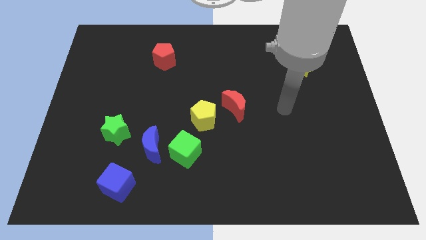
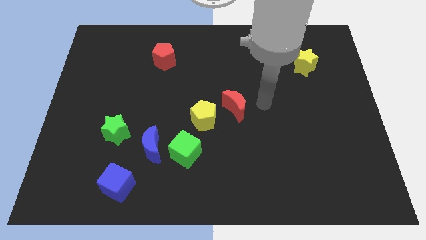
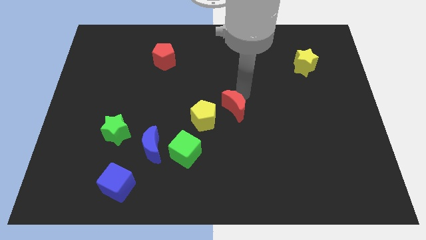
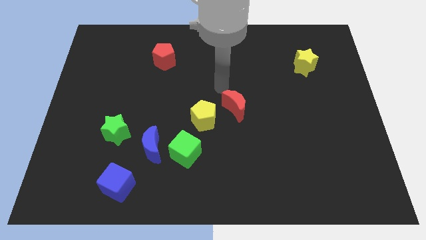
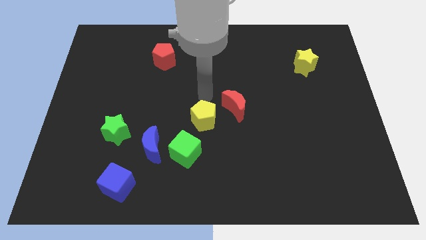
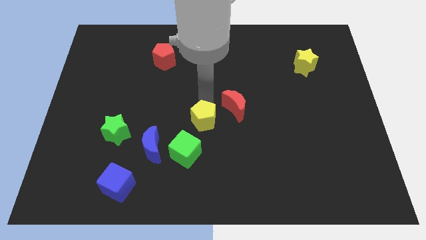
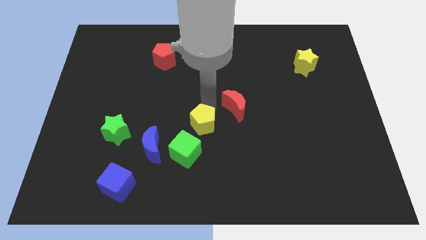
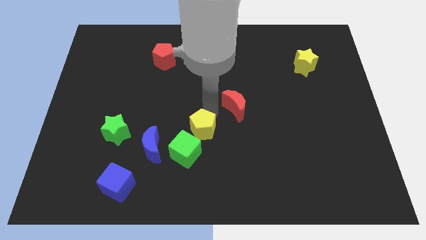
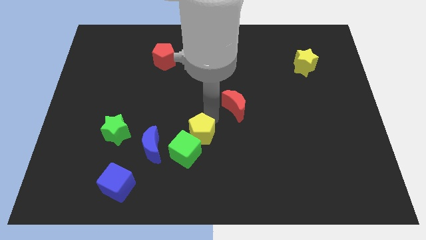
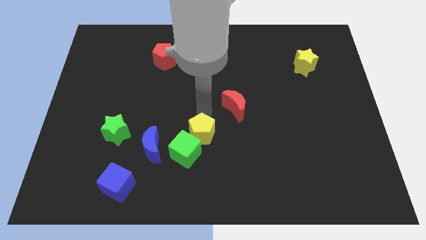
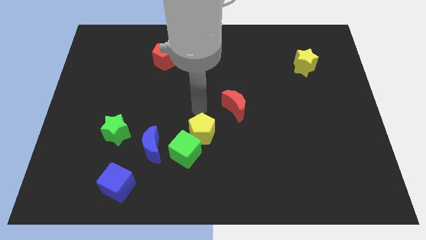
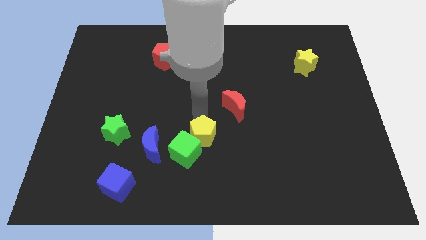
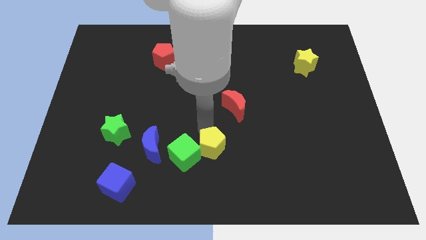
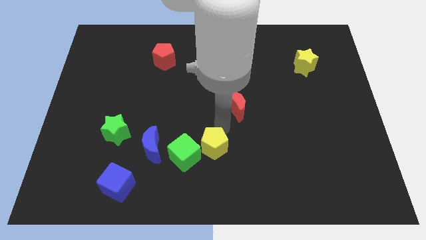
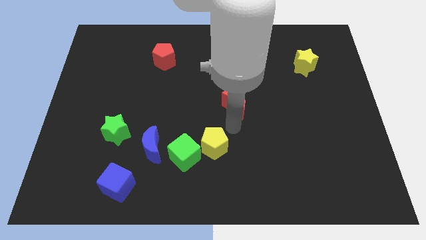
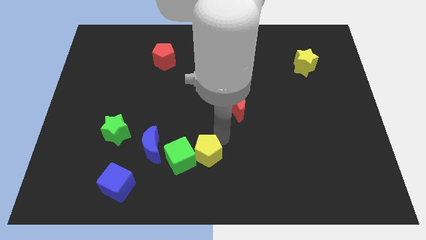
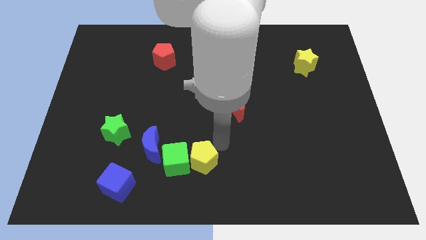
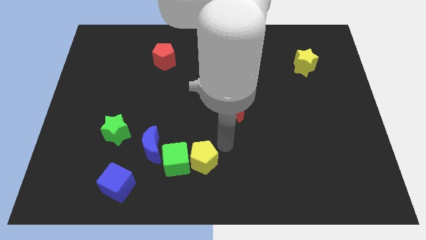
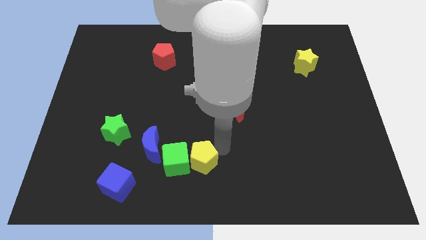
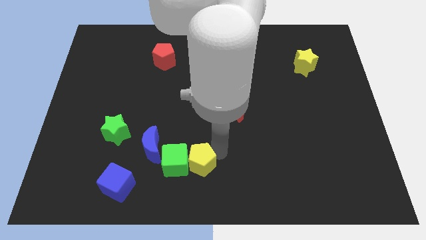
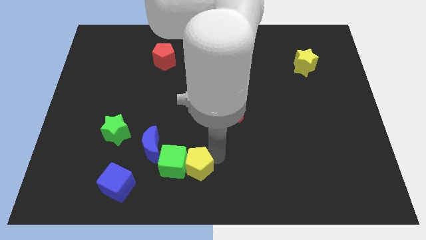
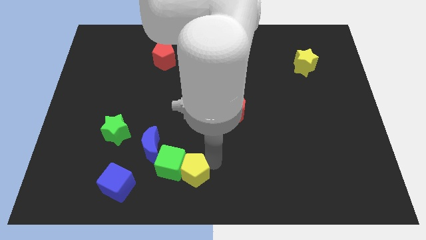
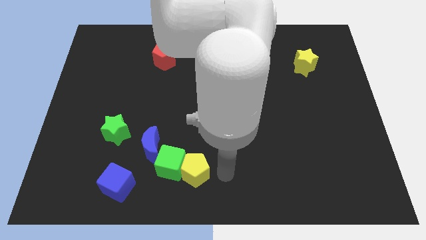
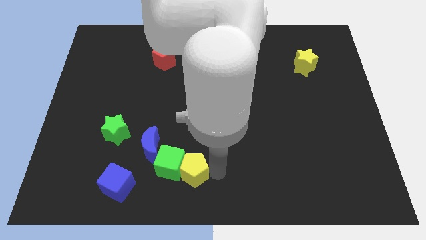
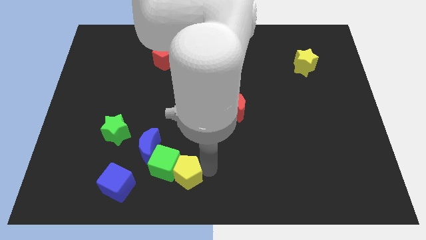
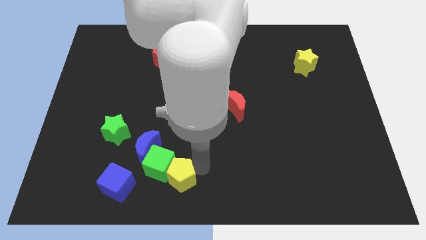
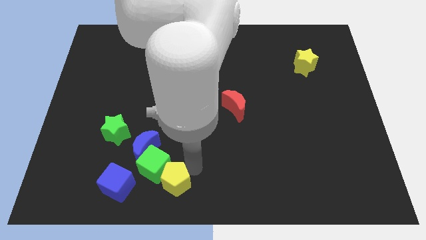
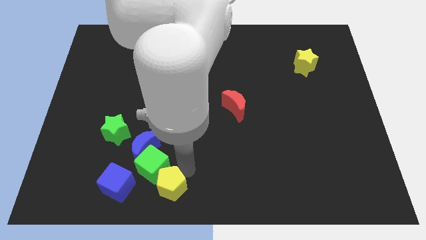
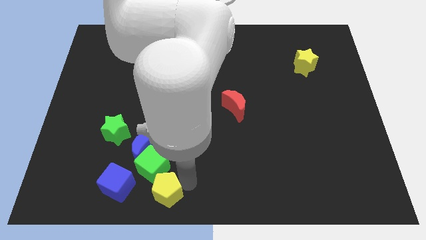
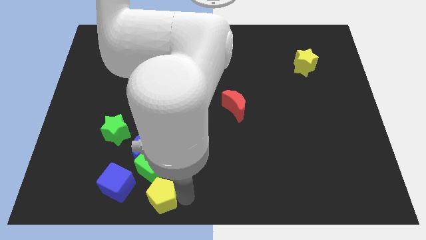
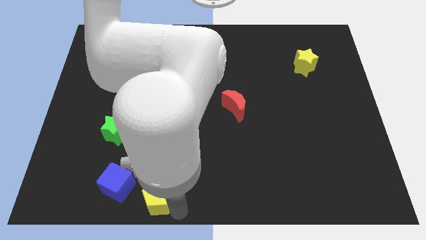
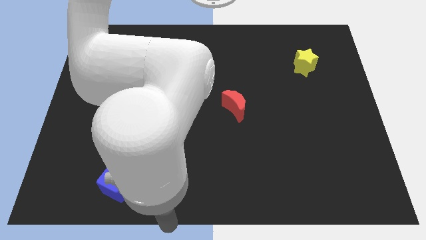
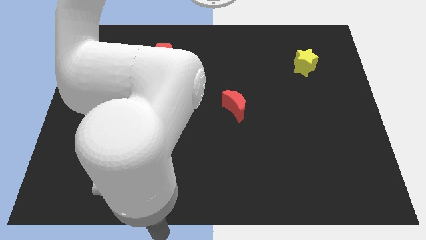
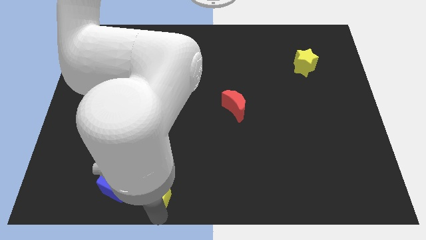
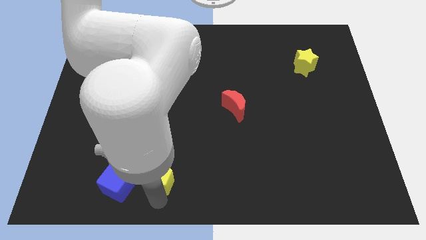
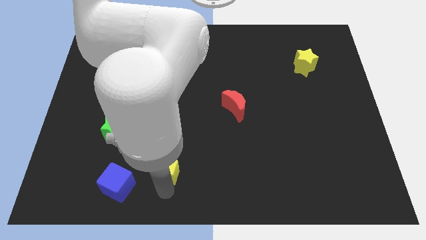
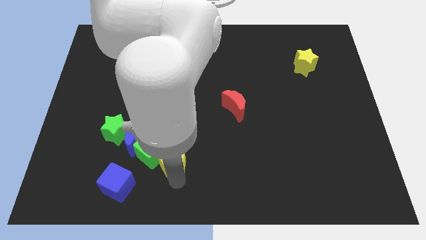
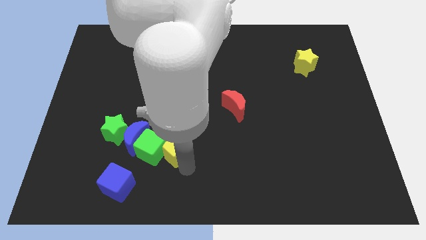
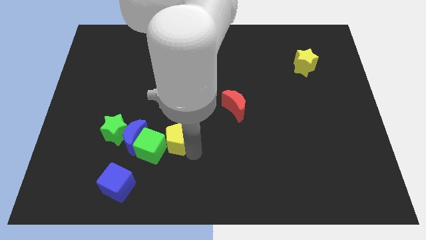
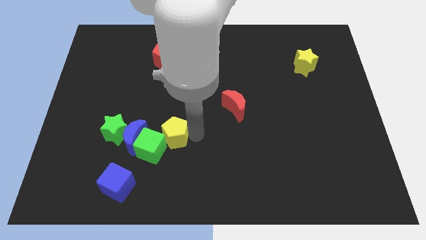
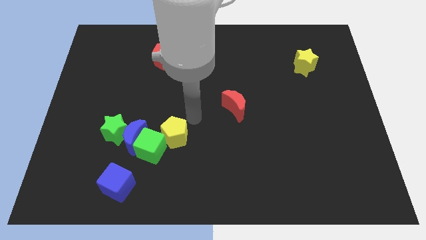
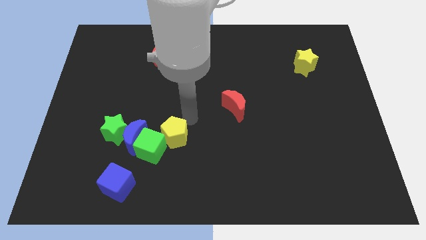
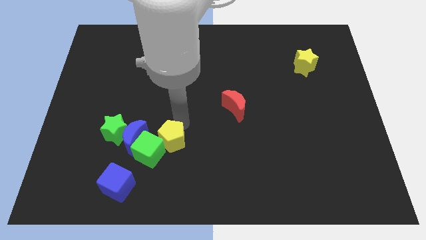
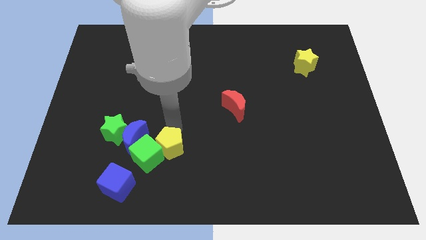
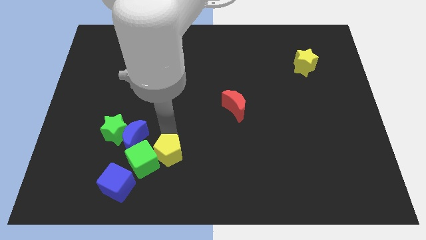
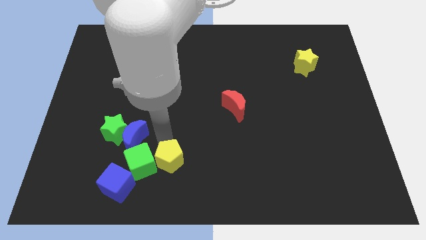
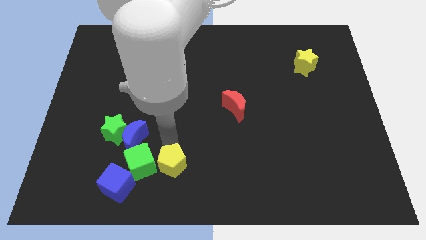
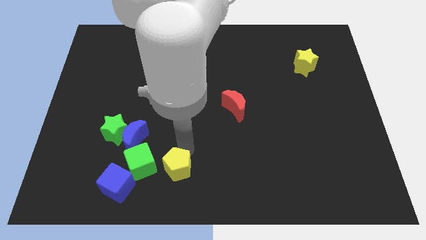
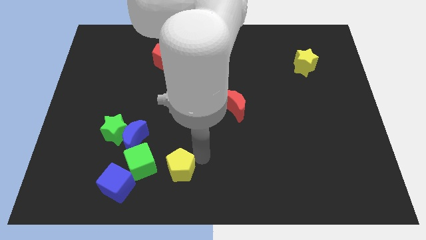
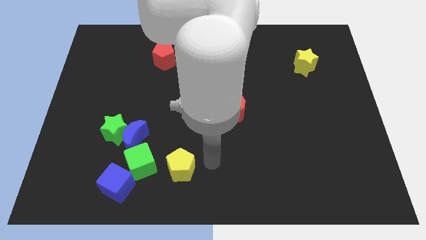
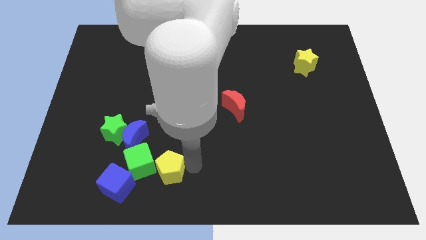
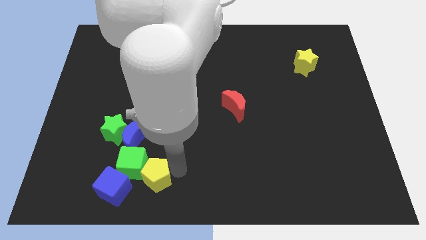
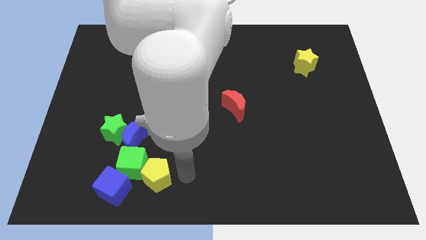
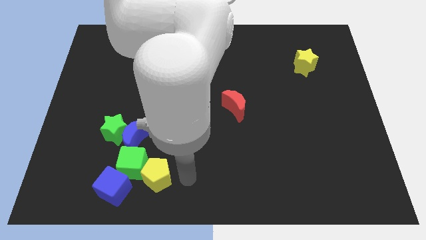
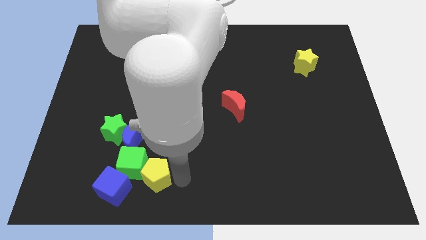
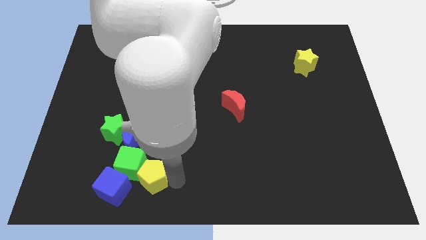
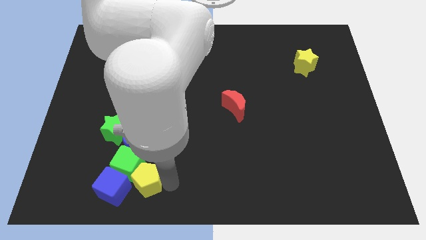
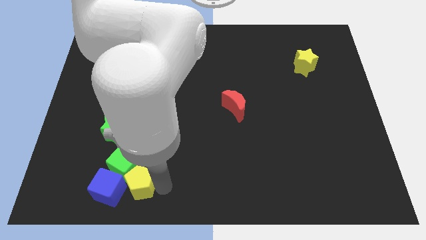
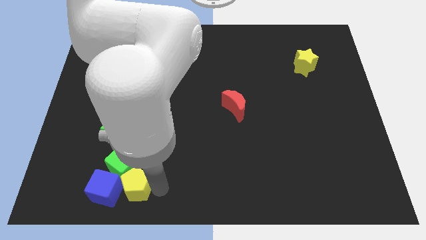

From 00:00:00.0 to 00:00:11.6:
put the yellow pentagon to the blue cube

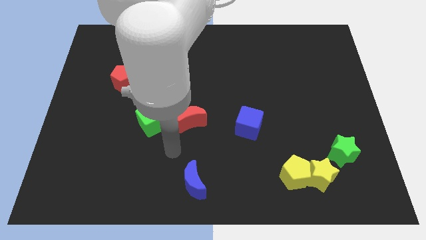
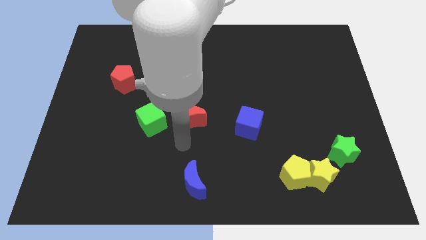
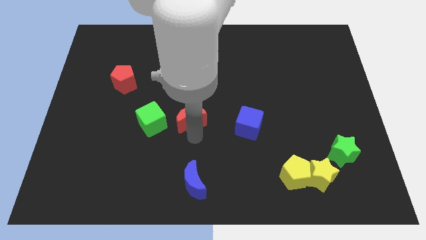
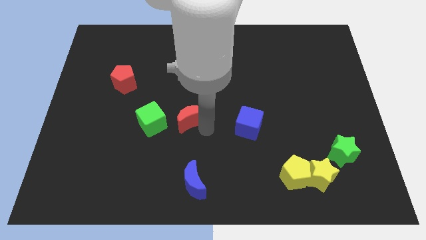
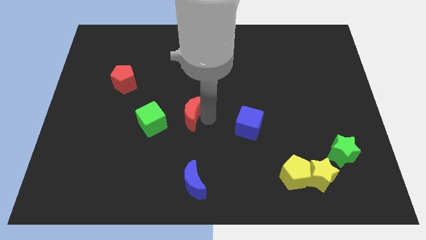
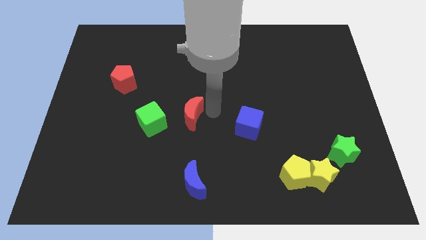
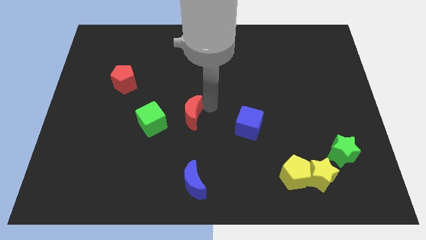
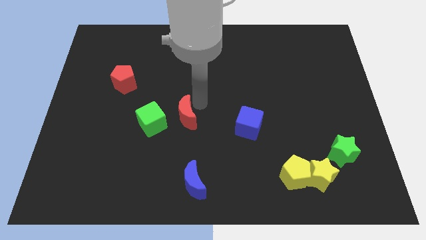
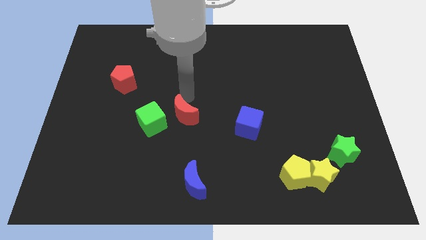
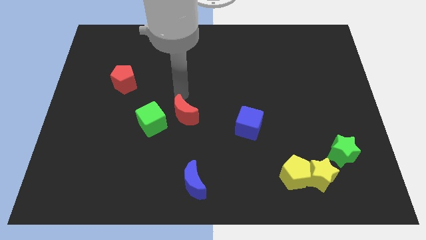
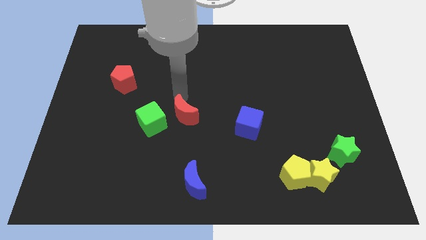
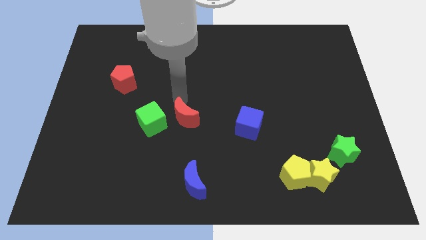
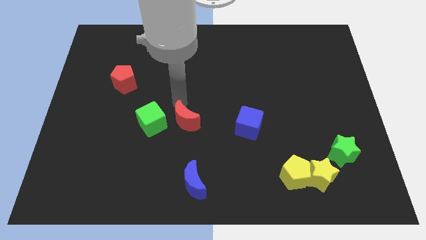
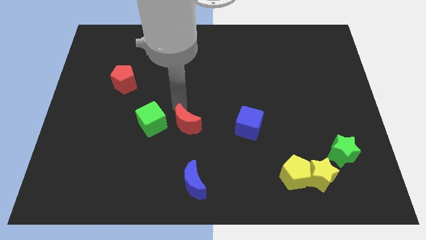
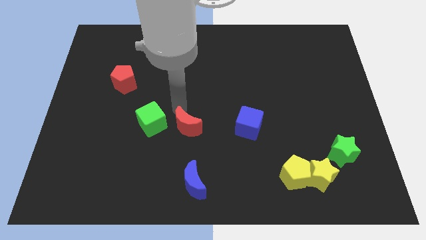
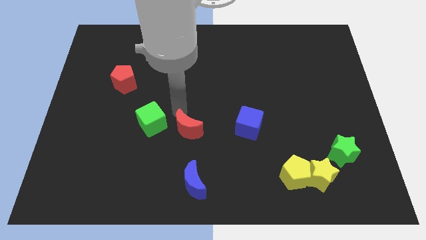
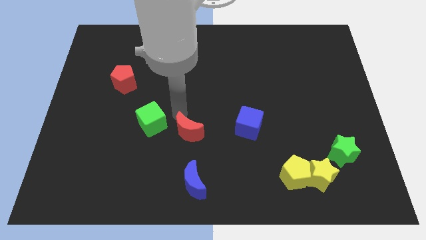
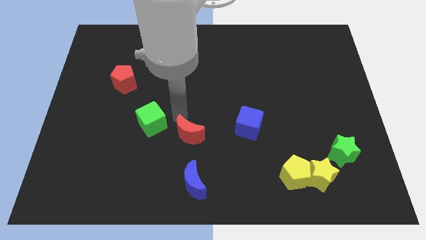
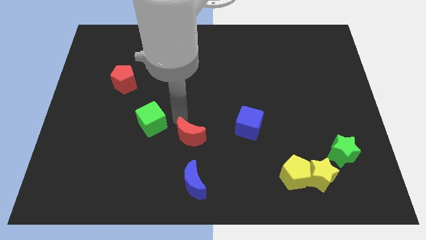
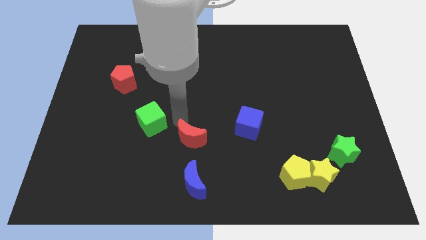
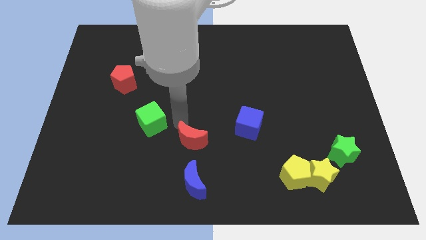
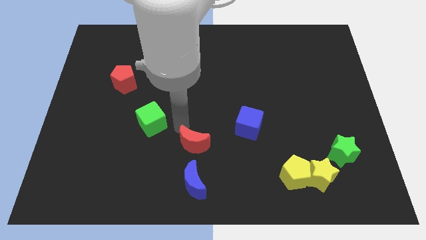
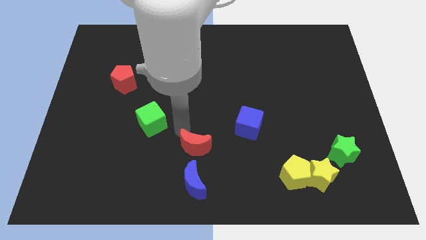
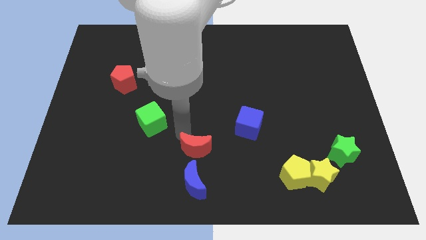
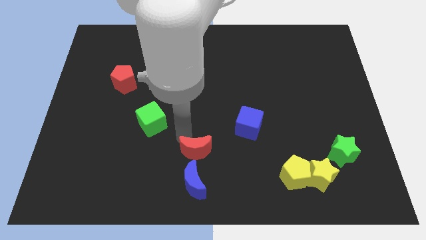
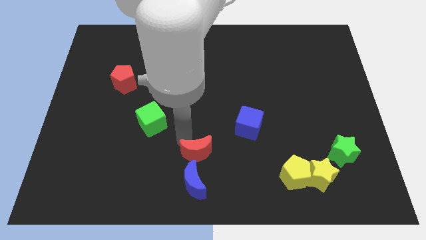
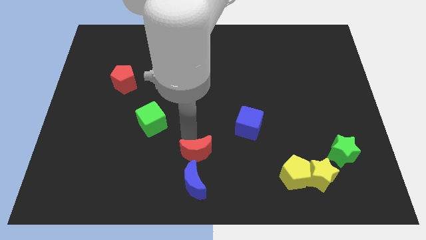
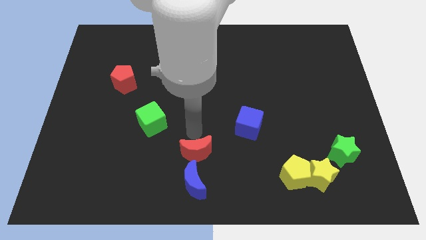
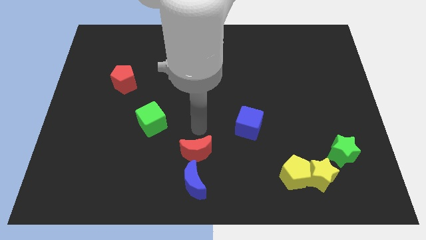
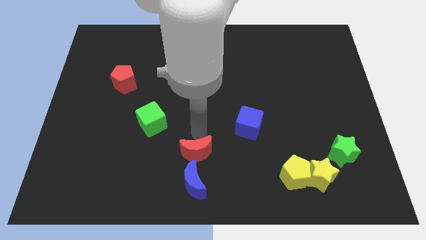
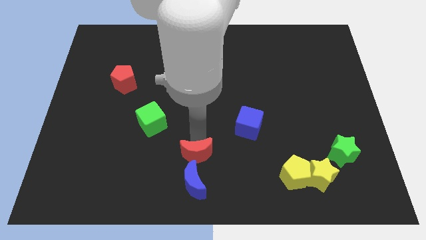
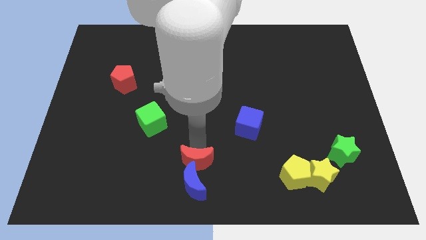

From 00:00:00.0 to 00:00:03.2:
slide the red moon next to the blue moon
